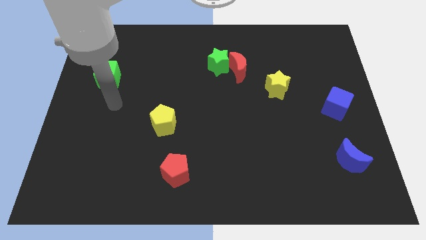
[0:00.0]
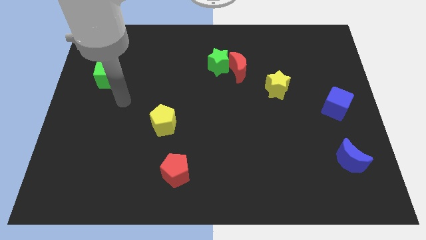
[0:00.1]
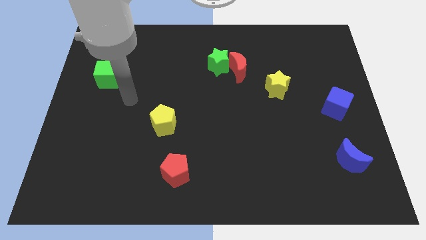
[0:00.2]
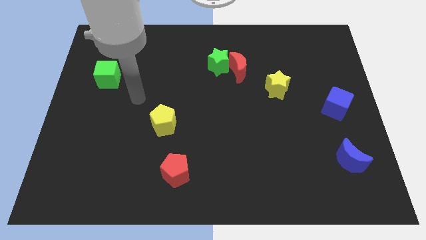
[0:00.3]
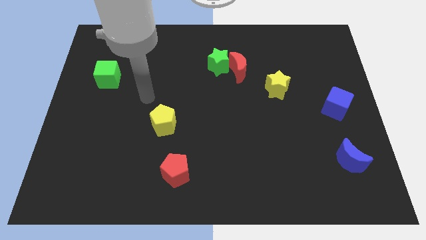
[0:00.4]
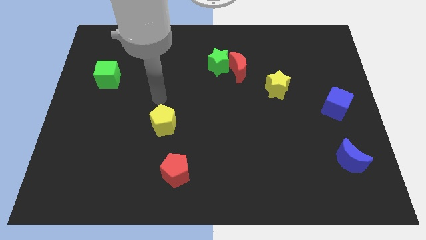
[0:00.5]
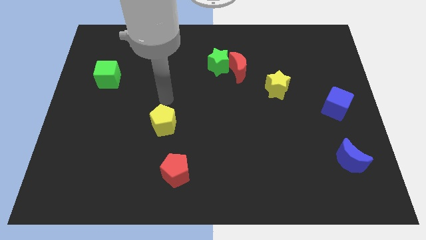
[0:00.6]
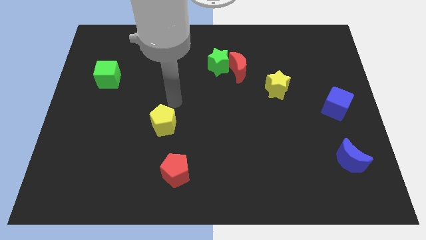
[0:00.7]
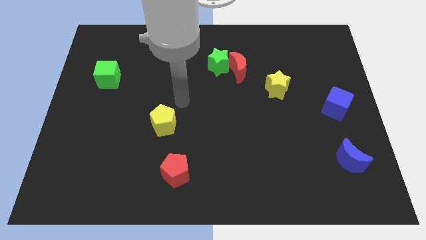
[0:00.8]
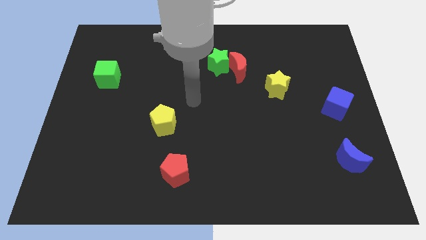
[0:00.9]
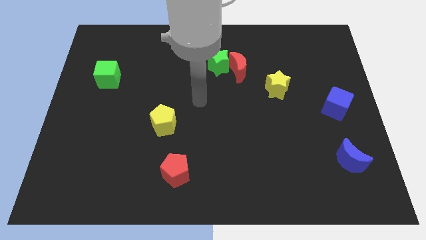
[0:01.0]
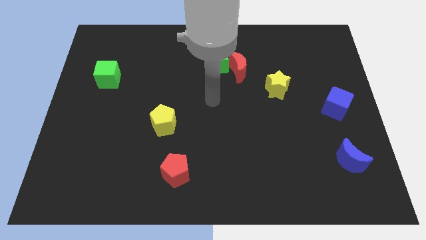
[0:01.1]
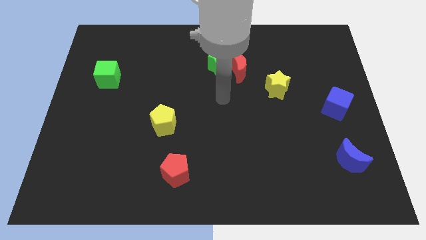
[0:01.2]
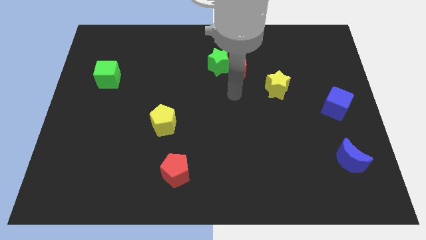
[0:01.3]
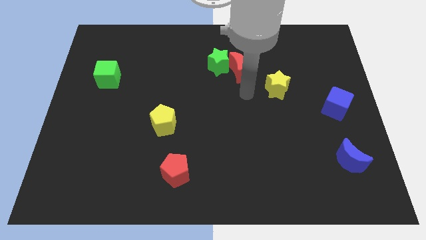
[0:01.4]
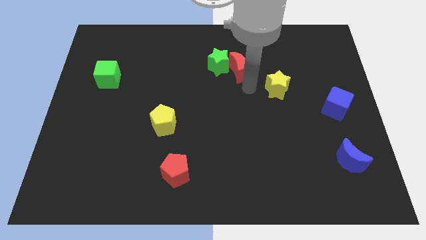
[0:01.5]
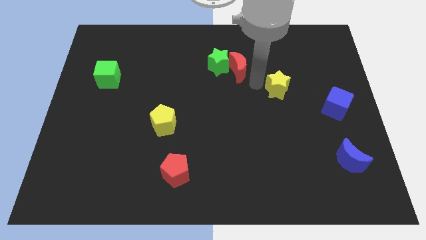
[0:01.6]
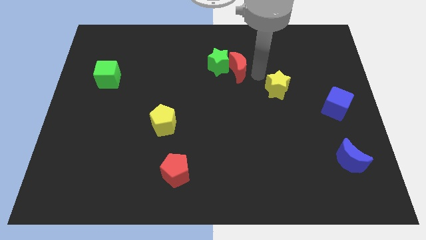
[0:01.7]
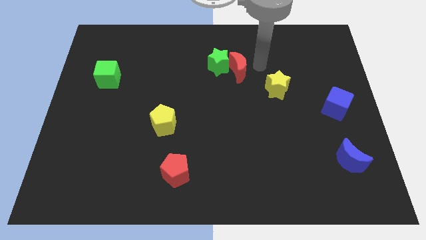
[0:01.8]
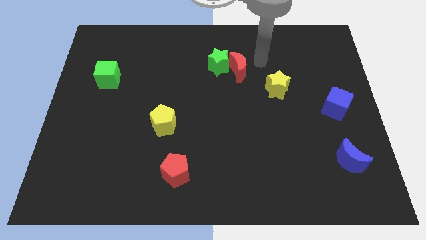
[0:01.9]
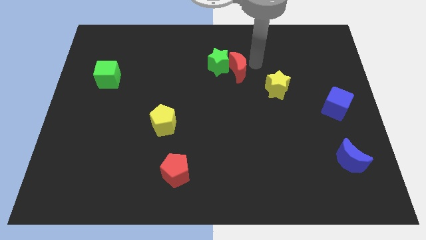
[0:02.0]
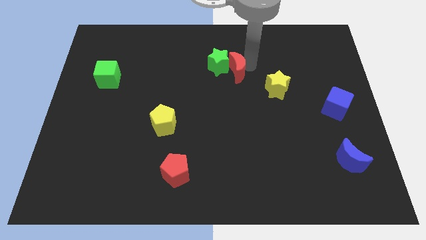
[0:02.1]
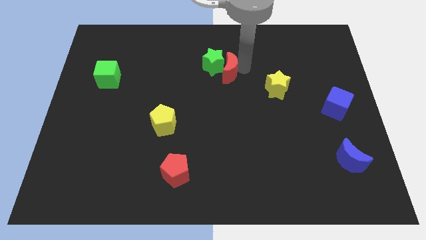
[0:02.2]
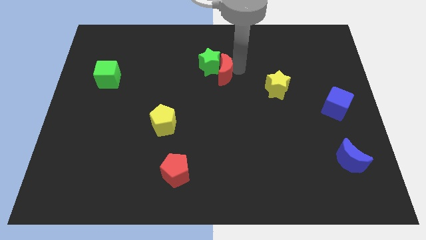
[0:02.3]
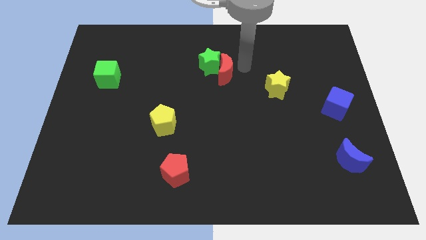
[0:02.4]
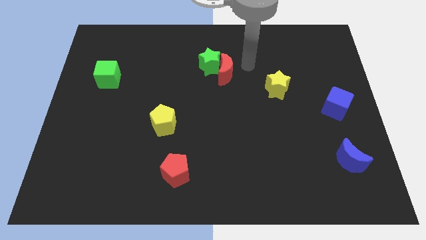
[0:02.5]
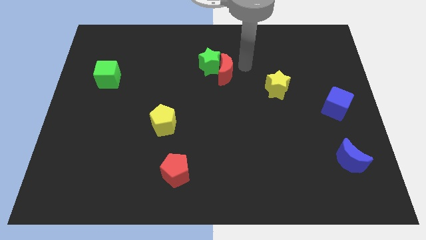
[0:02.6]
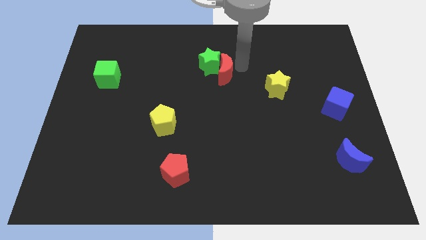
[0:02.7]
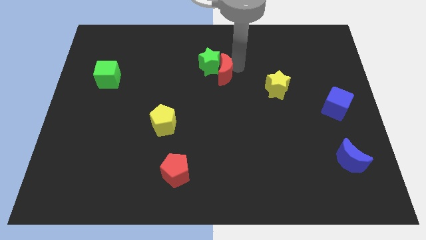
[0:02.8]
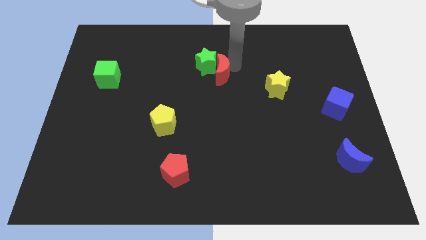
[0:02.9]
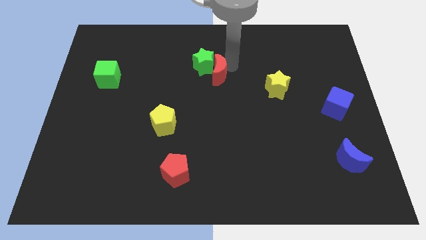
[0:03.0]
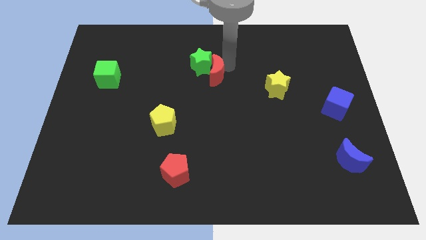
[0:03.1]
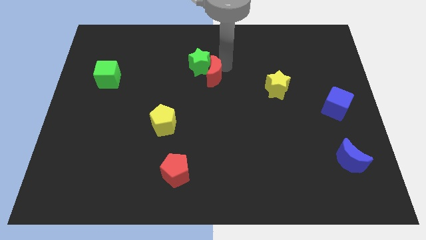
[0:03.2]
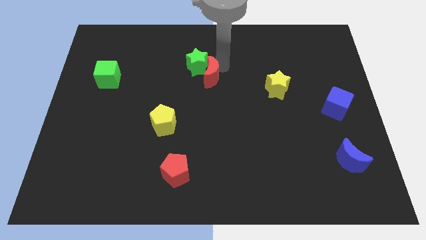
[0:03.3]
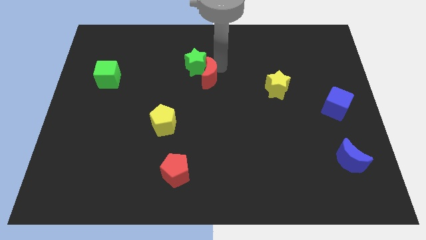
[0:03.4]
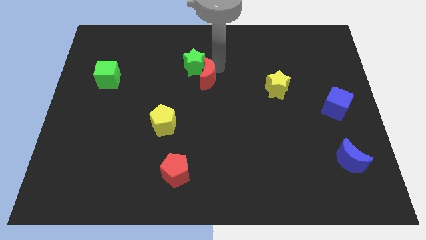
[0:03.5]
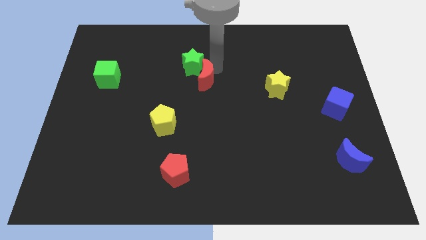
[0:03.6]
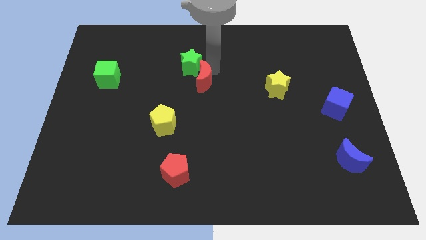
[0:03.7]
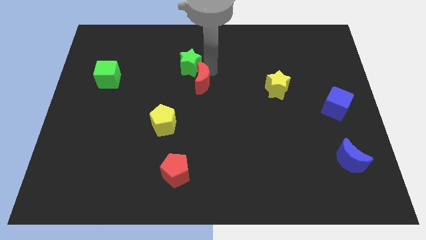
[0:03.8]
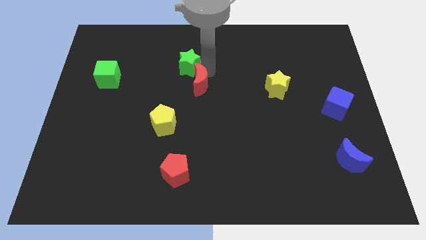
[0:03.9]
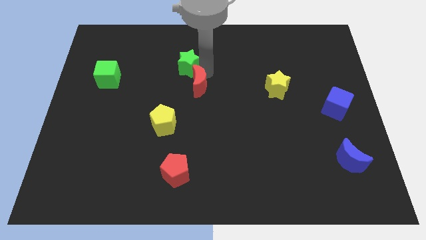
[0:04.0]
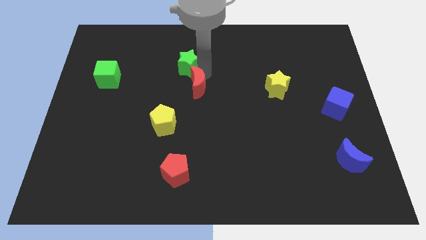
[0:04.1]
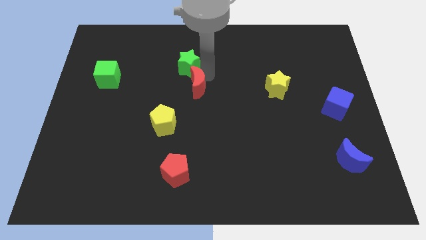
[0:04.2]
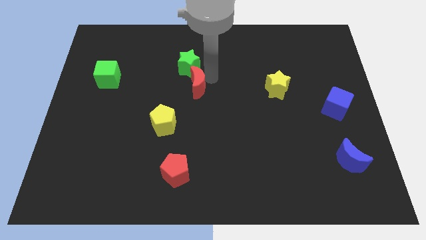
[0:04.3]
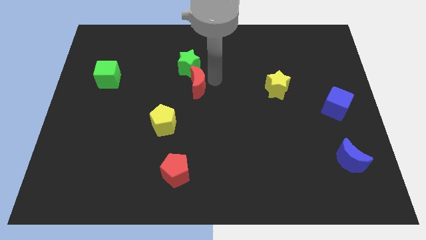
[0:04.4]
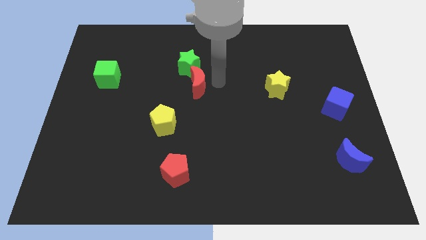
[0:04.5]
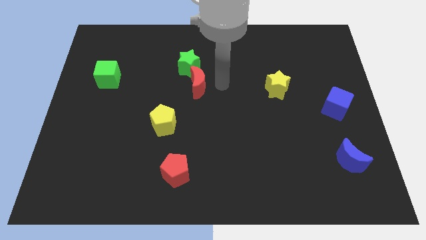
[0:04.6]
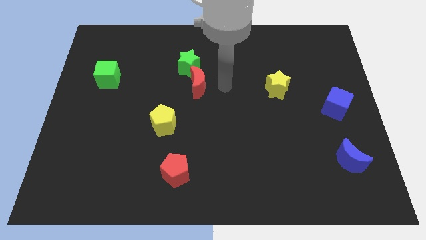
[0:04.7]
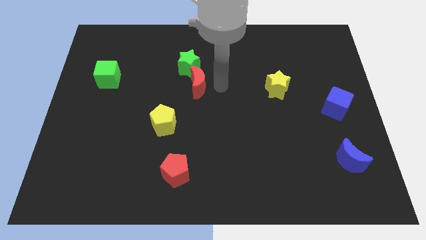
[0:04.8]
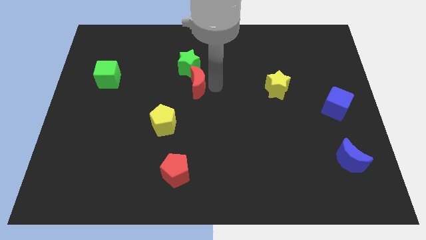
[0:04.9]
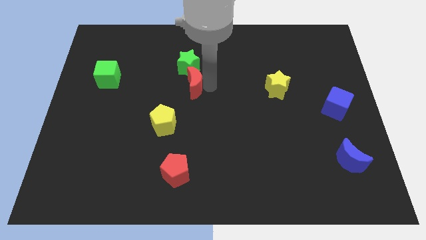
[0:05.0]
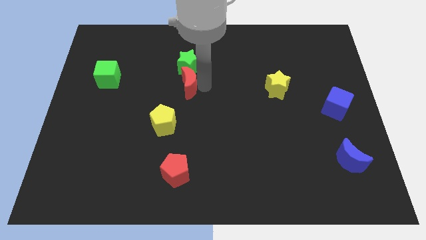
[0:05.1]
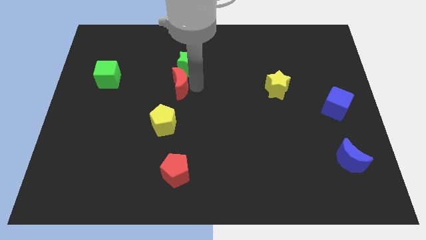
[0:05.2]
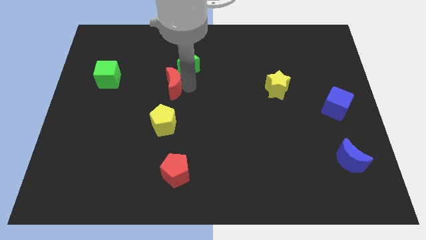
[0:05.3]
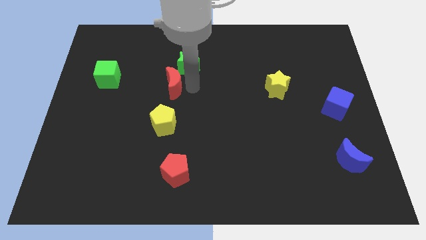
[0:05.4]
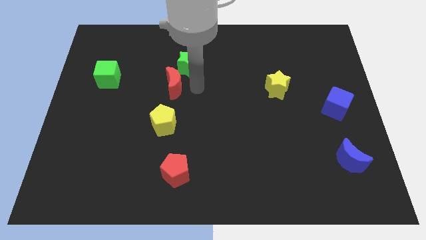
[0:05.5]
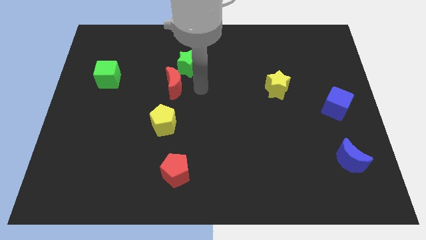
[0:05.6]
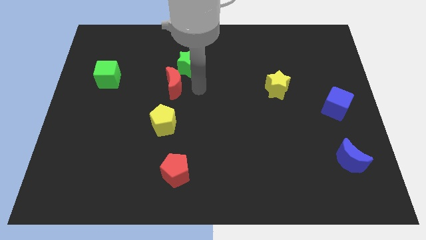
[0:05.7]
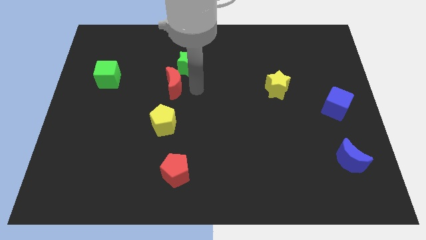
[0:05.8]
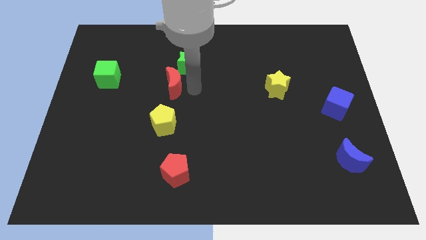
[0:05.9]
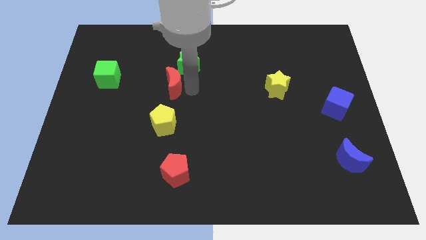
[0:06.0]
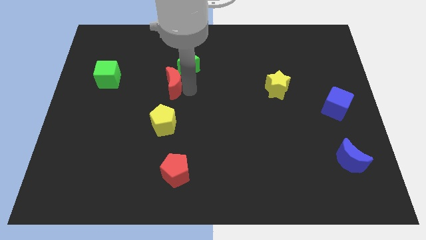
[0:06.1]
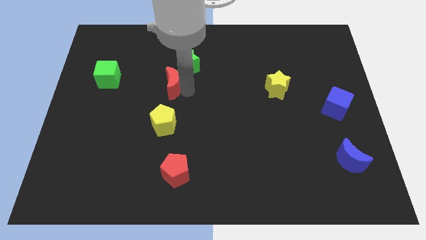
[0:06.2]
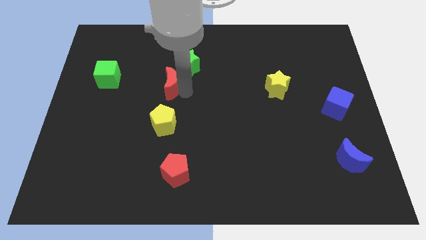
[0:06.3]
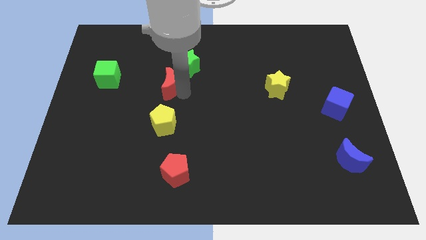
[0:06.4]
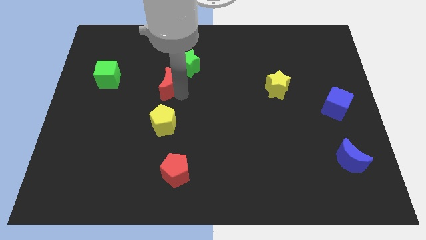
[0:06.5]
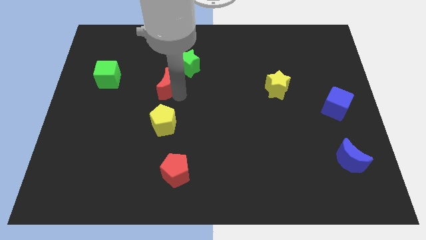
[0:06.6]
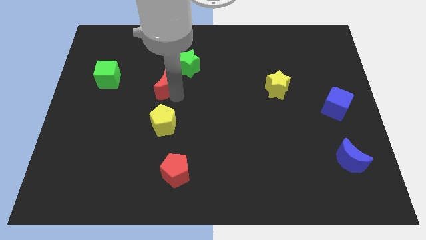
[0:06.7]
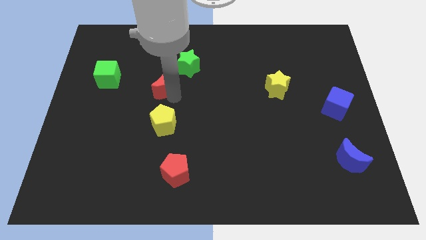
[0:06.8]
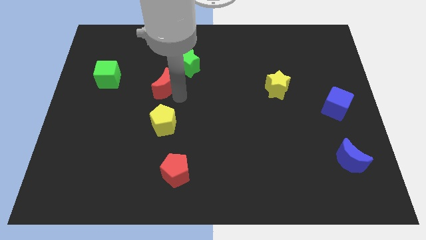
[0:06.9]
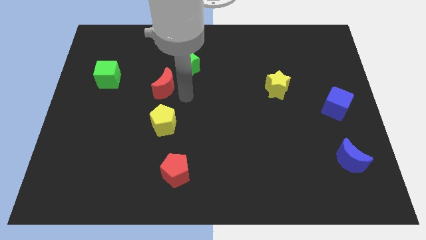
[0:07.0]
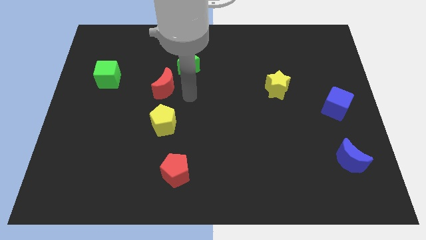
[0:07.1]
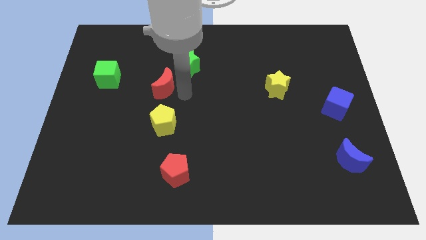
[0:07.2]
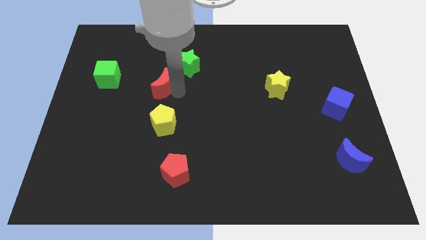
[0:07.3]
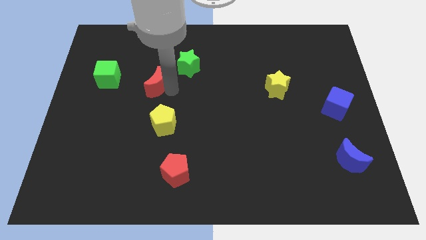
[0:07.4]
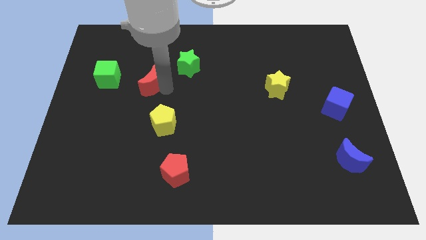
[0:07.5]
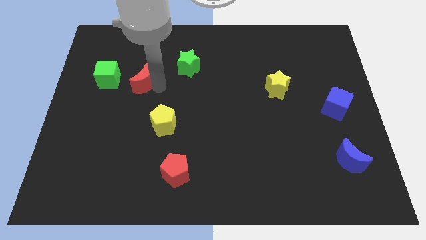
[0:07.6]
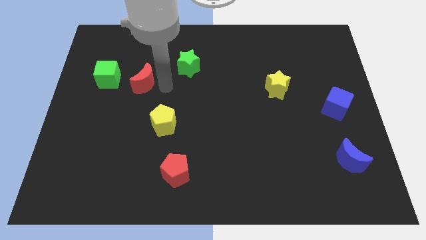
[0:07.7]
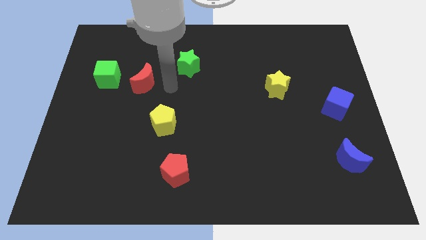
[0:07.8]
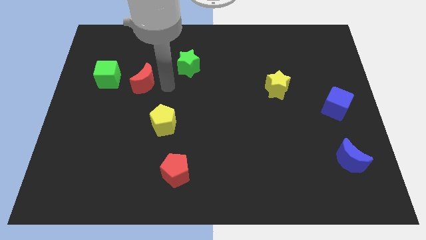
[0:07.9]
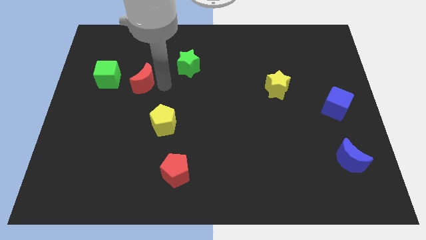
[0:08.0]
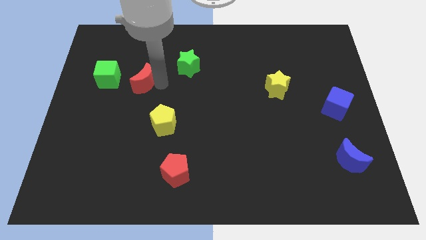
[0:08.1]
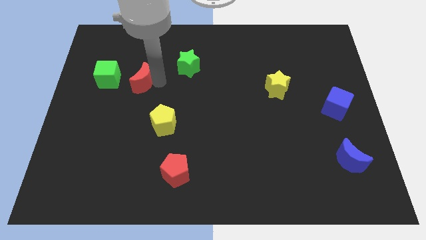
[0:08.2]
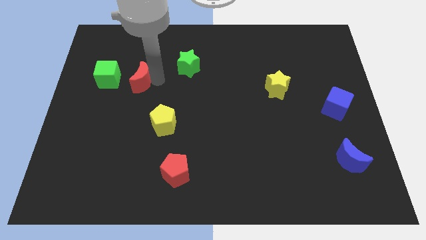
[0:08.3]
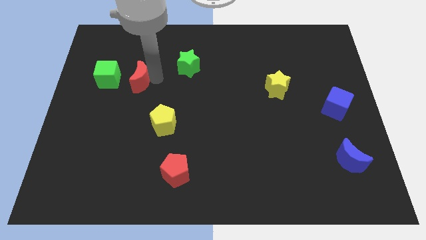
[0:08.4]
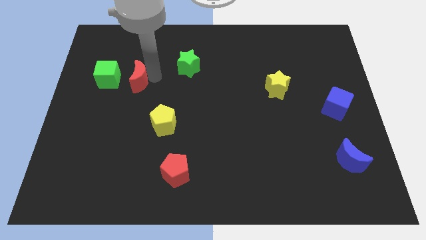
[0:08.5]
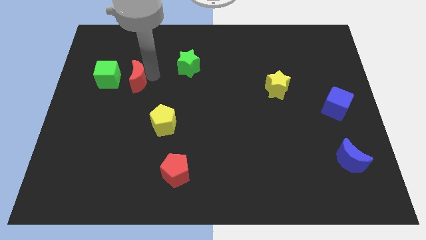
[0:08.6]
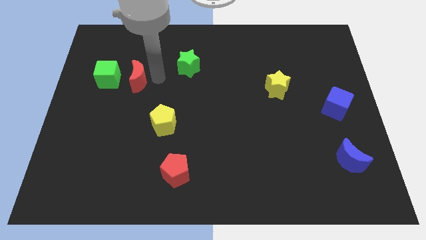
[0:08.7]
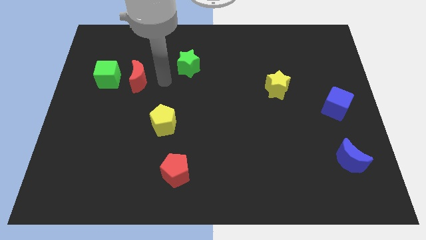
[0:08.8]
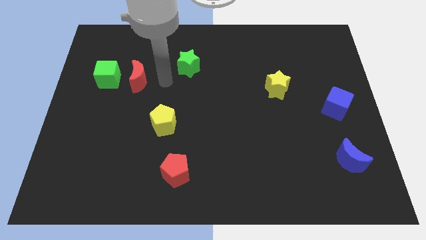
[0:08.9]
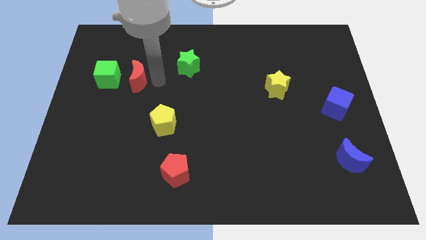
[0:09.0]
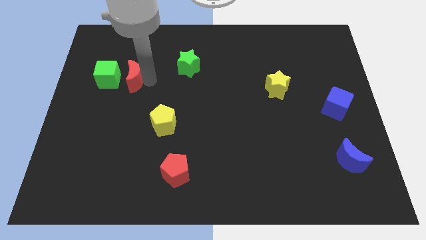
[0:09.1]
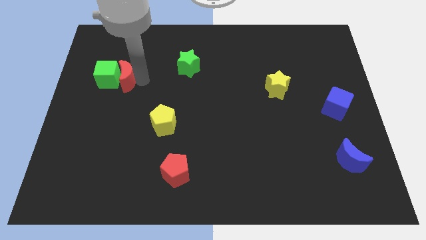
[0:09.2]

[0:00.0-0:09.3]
move the red moon to the green cube
